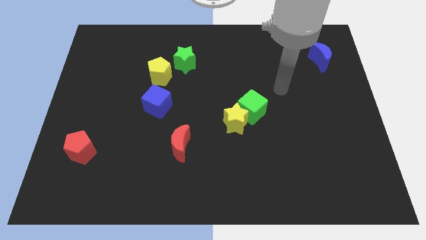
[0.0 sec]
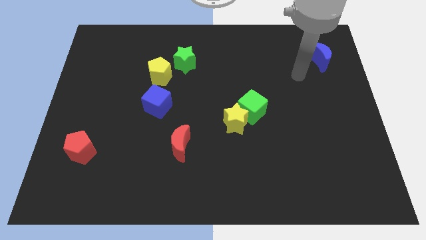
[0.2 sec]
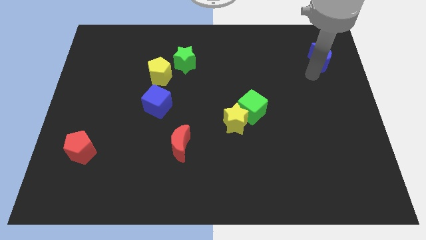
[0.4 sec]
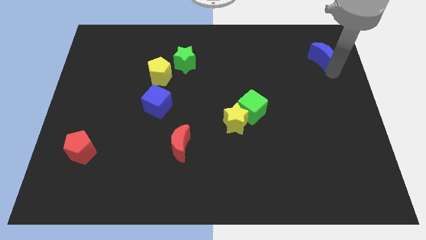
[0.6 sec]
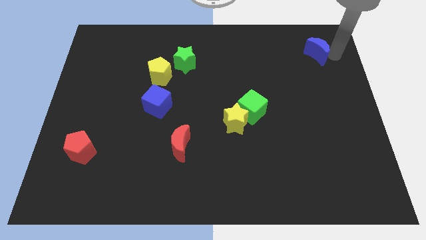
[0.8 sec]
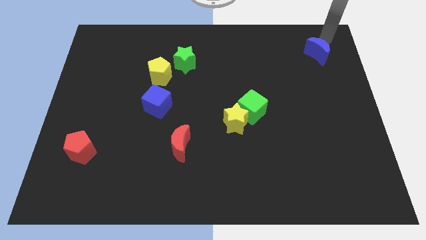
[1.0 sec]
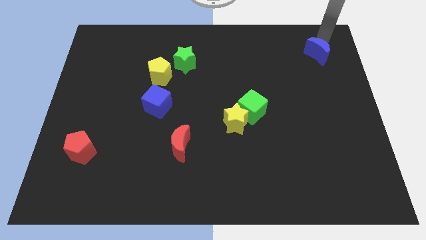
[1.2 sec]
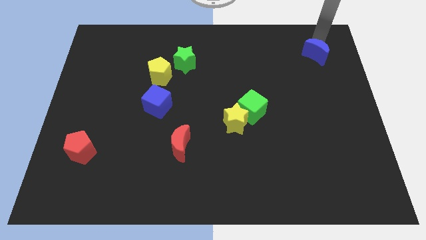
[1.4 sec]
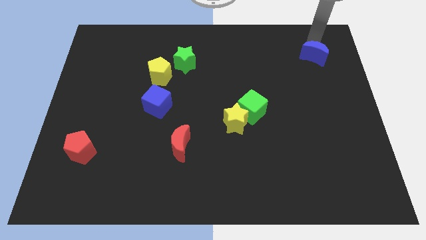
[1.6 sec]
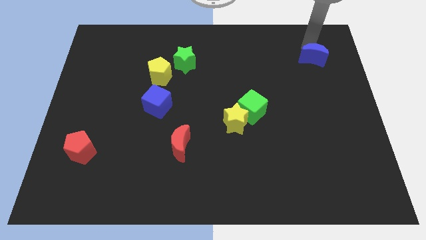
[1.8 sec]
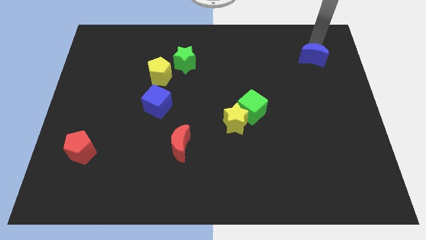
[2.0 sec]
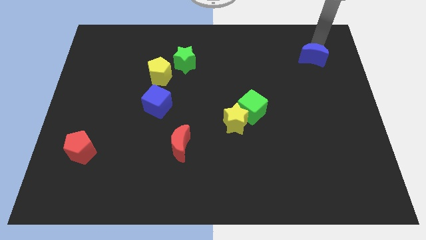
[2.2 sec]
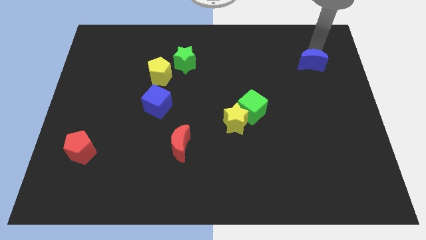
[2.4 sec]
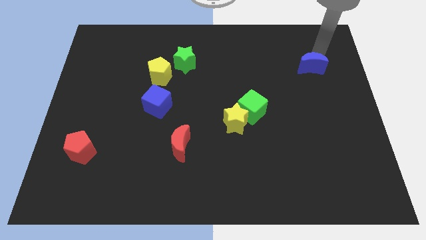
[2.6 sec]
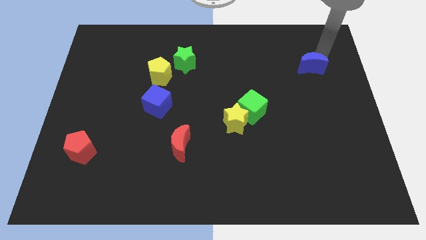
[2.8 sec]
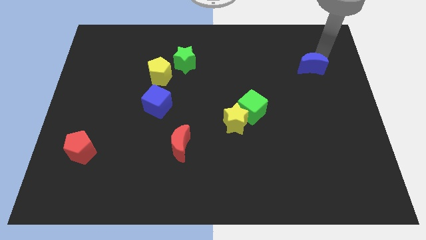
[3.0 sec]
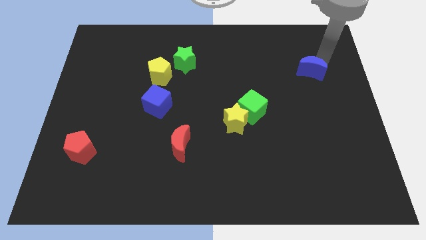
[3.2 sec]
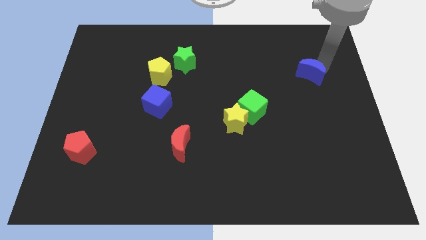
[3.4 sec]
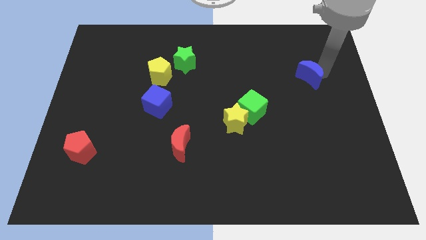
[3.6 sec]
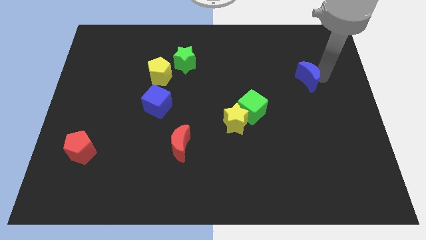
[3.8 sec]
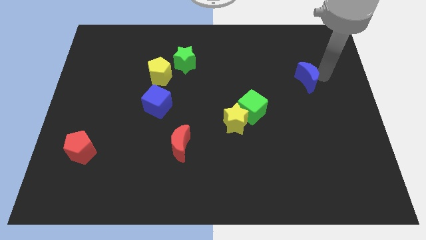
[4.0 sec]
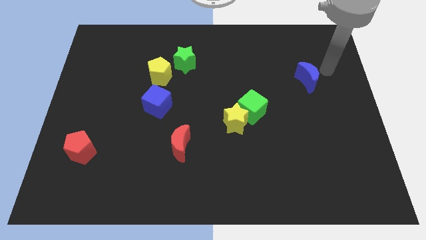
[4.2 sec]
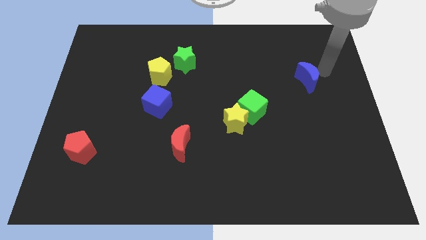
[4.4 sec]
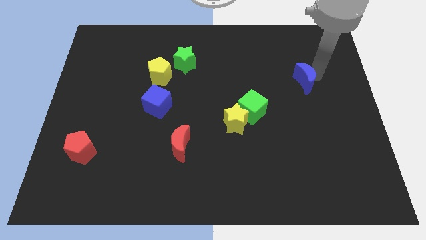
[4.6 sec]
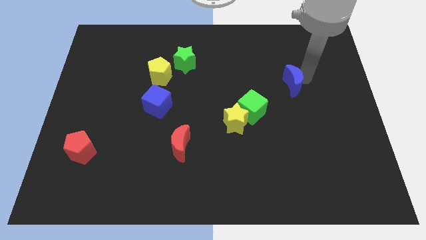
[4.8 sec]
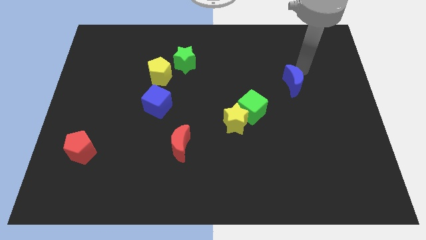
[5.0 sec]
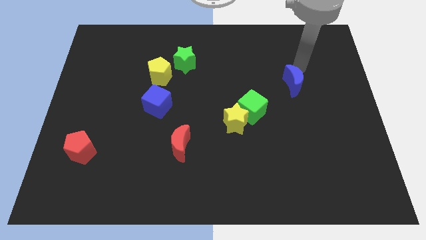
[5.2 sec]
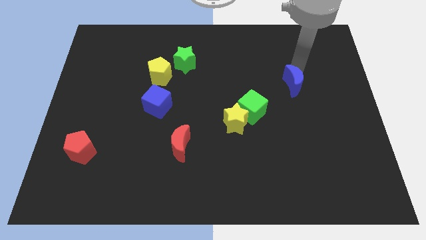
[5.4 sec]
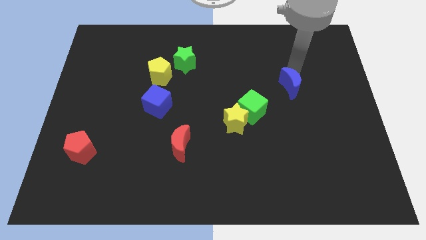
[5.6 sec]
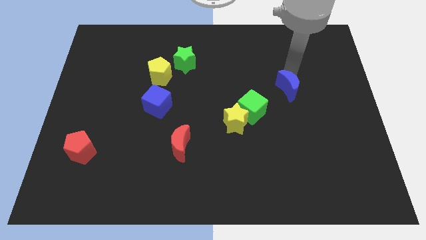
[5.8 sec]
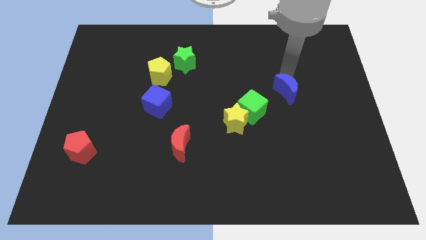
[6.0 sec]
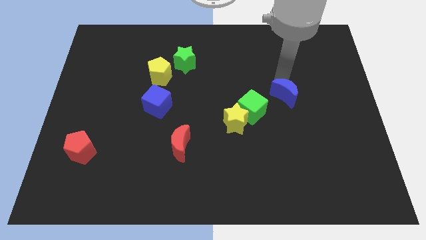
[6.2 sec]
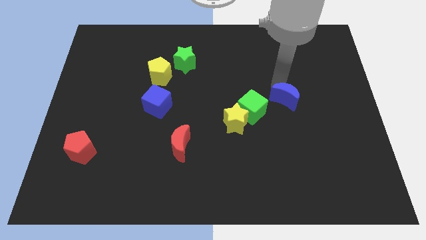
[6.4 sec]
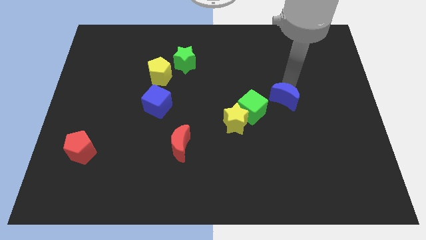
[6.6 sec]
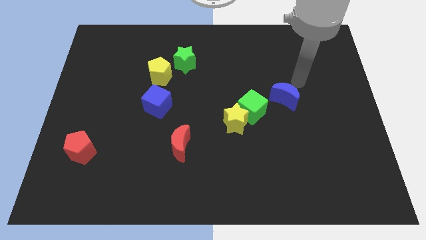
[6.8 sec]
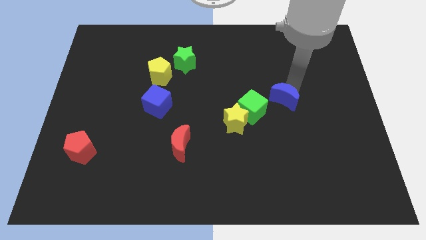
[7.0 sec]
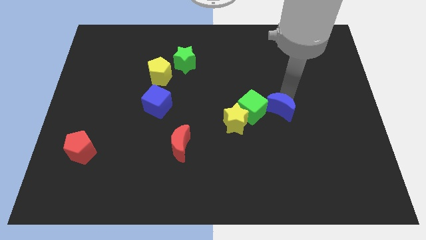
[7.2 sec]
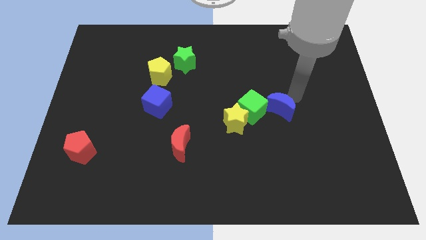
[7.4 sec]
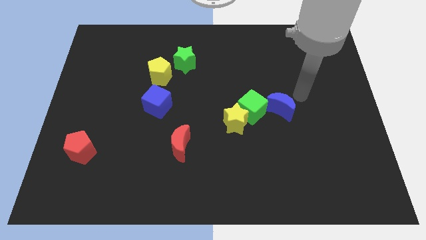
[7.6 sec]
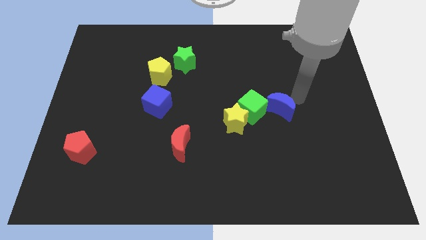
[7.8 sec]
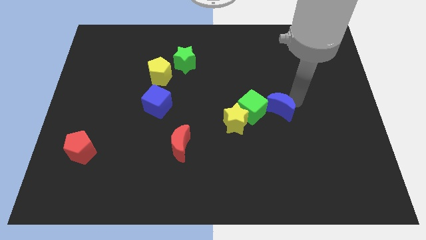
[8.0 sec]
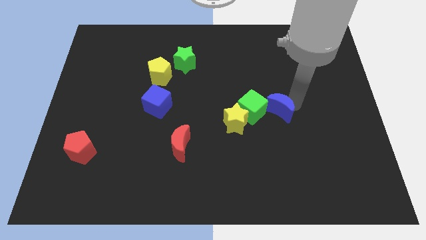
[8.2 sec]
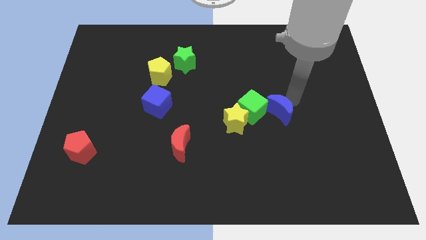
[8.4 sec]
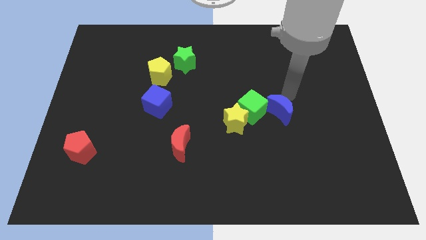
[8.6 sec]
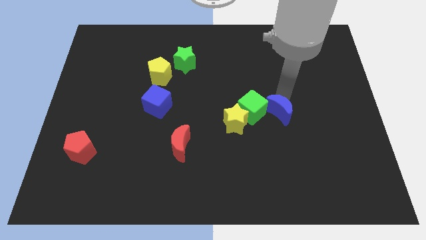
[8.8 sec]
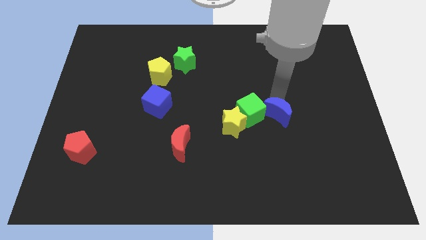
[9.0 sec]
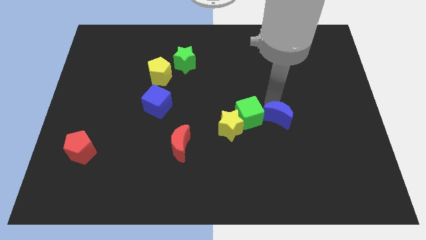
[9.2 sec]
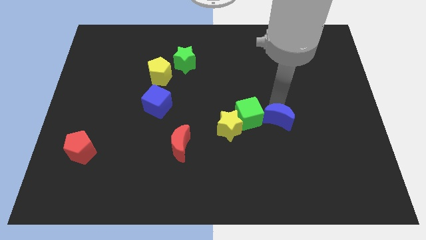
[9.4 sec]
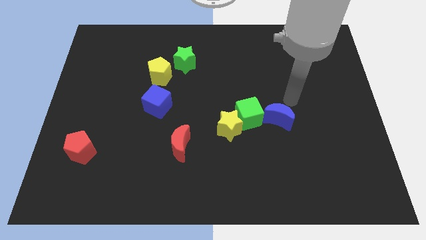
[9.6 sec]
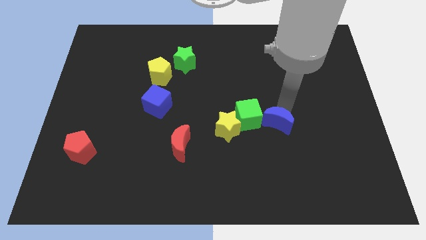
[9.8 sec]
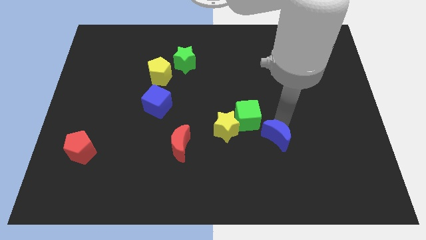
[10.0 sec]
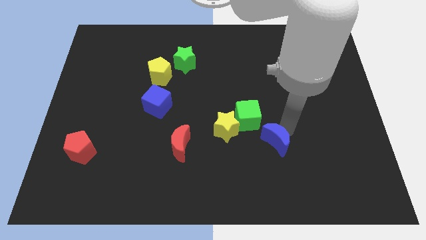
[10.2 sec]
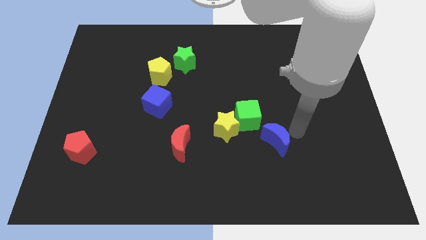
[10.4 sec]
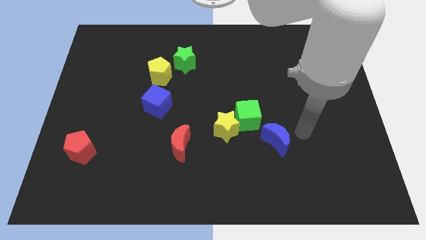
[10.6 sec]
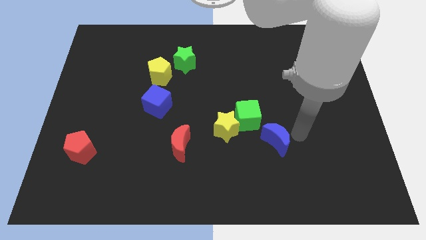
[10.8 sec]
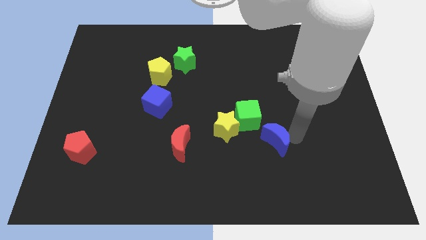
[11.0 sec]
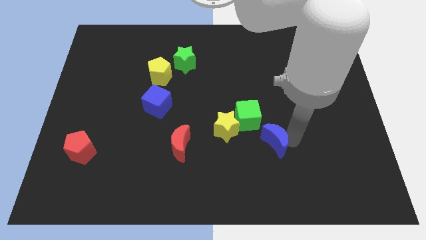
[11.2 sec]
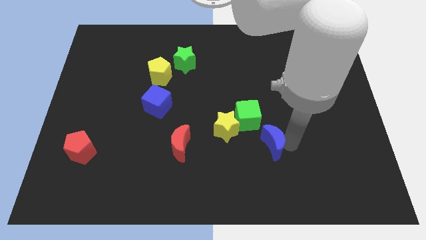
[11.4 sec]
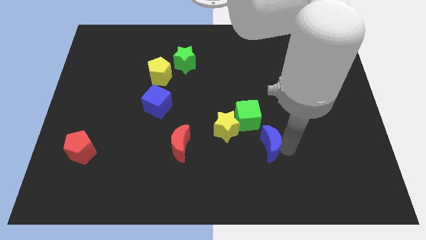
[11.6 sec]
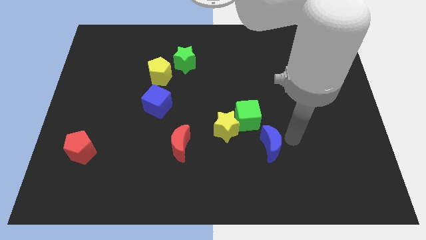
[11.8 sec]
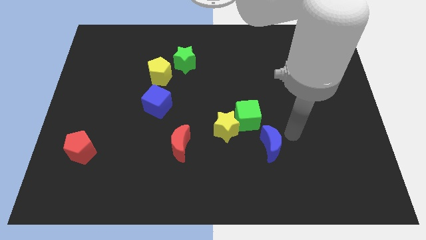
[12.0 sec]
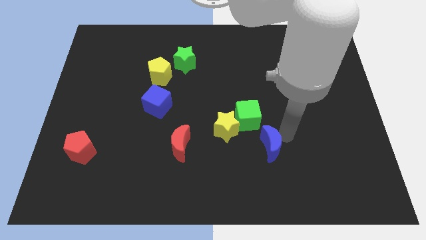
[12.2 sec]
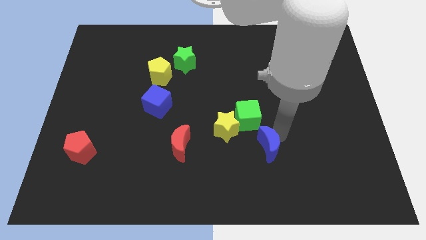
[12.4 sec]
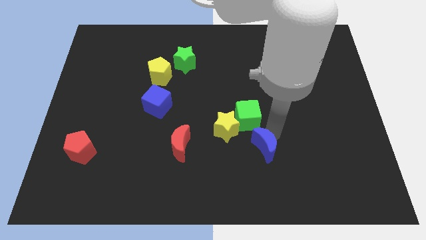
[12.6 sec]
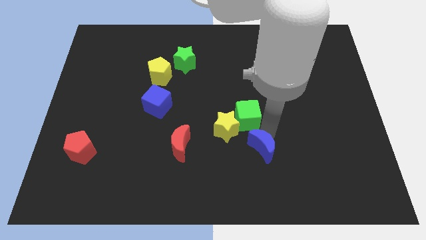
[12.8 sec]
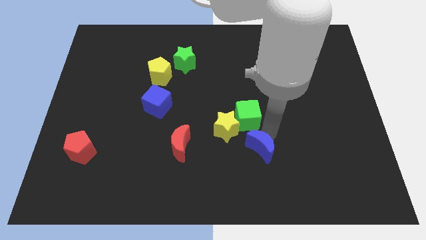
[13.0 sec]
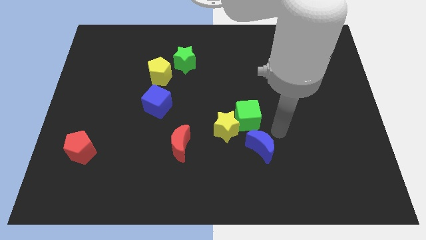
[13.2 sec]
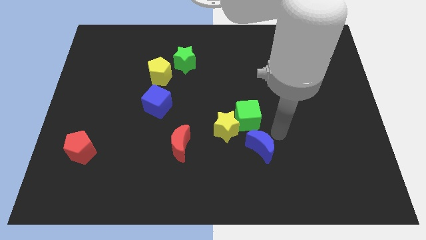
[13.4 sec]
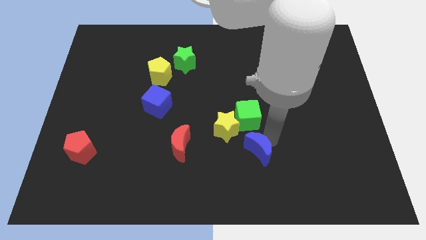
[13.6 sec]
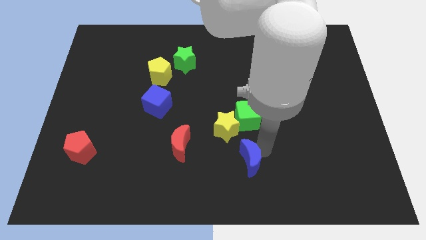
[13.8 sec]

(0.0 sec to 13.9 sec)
put the blue moon to the right of the red moon

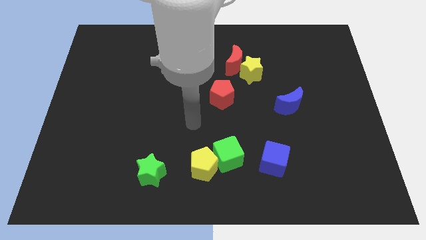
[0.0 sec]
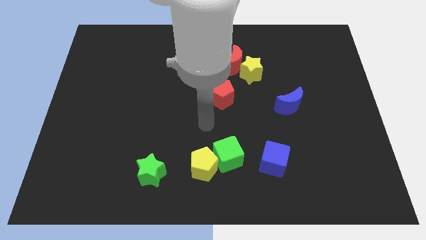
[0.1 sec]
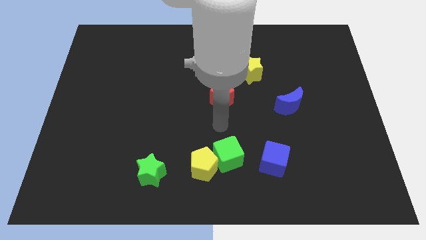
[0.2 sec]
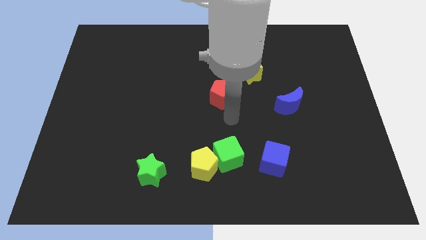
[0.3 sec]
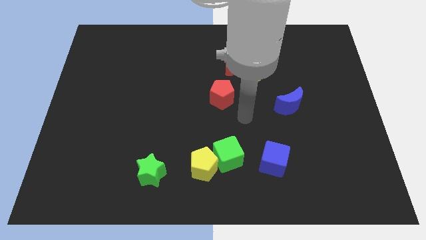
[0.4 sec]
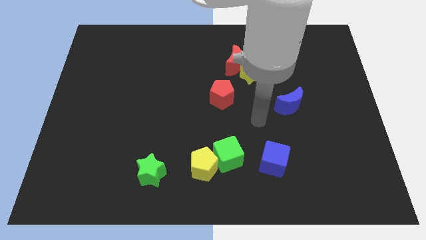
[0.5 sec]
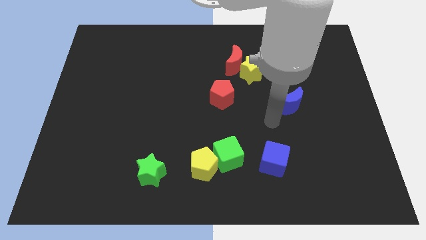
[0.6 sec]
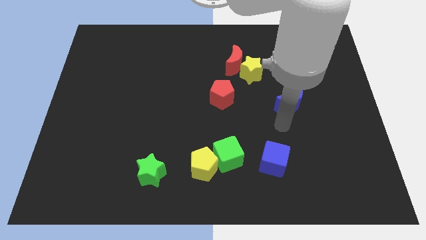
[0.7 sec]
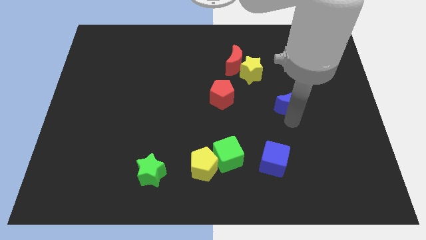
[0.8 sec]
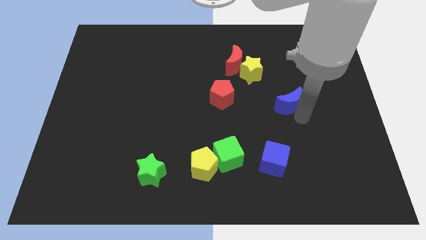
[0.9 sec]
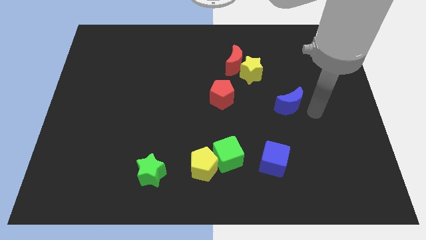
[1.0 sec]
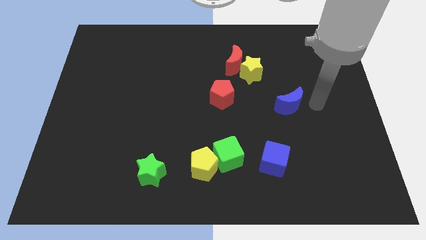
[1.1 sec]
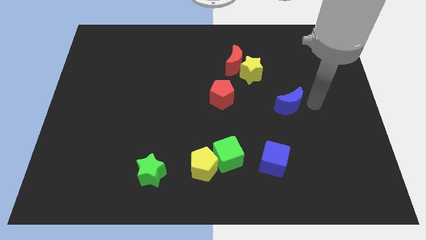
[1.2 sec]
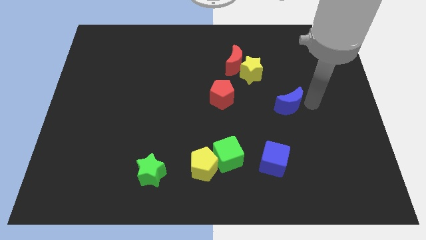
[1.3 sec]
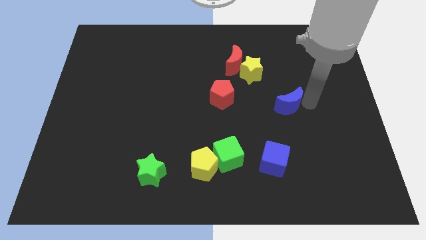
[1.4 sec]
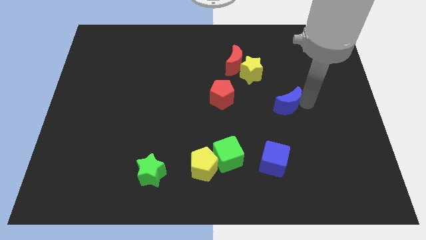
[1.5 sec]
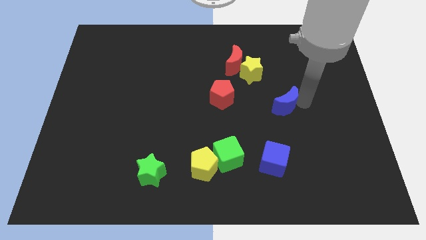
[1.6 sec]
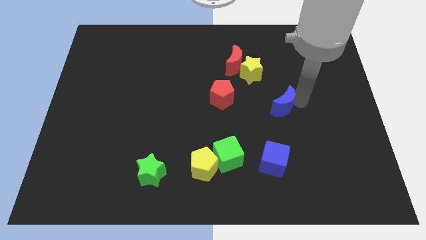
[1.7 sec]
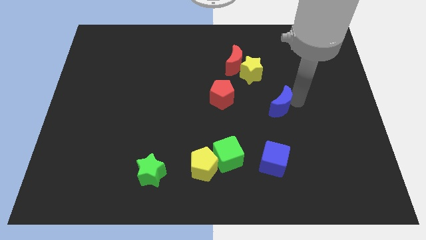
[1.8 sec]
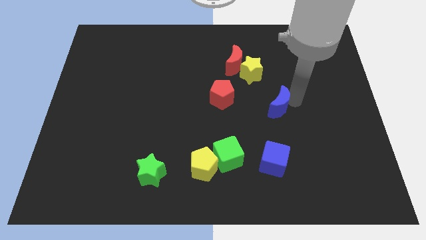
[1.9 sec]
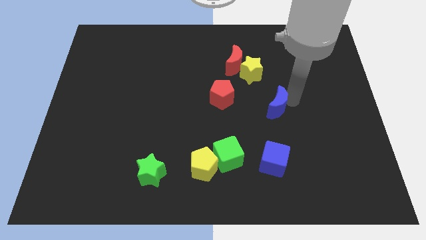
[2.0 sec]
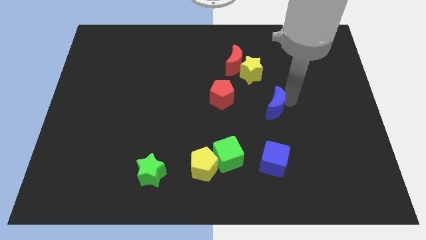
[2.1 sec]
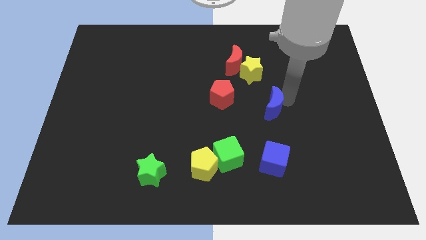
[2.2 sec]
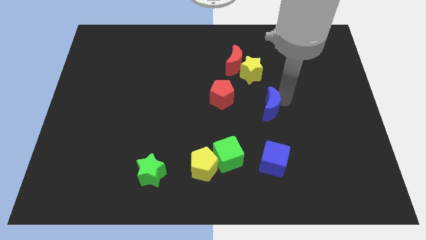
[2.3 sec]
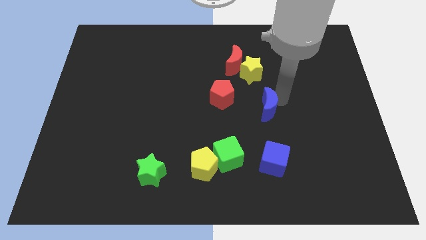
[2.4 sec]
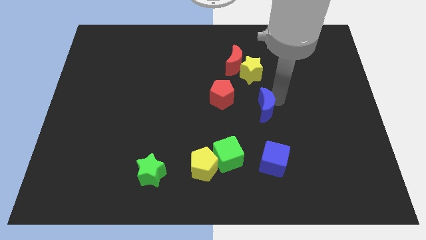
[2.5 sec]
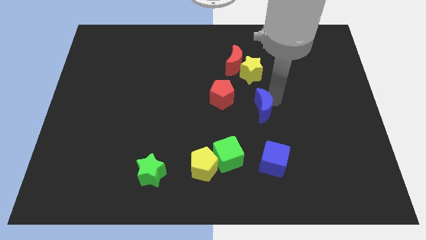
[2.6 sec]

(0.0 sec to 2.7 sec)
put the blue moon diagonally down and to the right of the red pentagon
